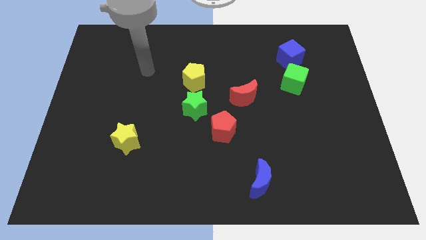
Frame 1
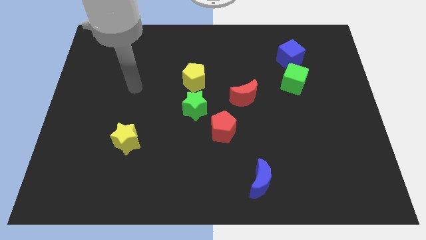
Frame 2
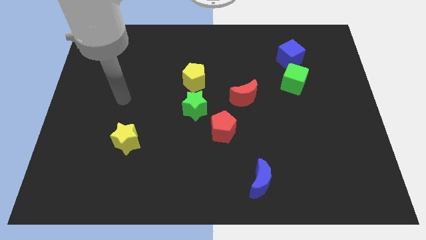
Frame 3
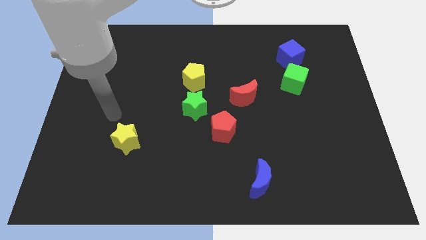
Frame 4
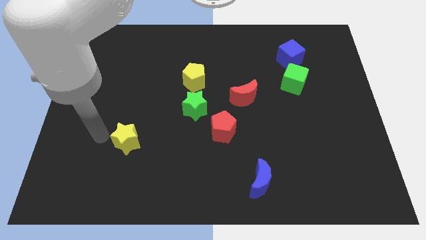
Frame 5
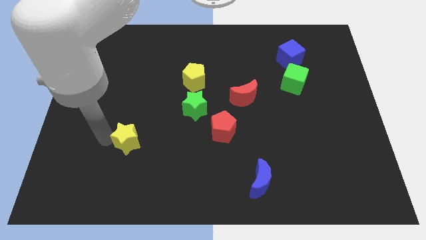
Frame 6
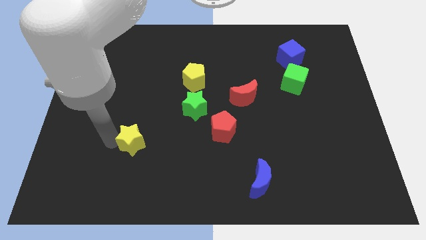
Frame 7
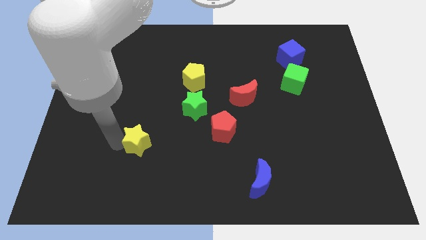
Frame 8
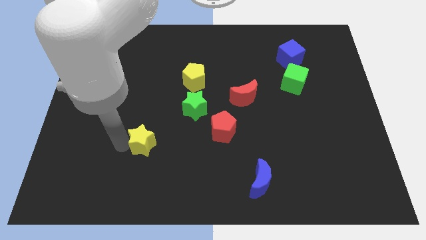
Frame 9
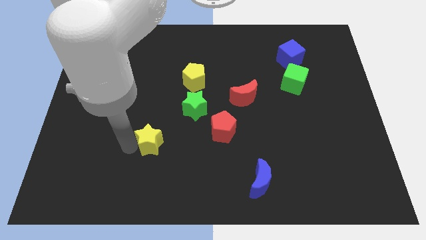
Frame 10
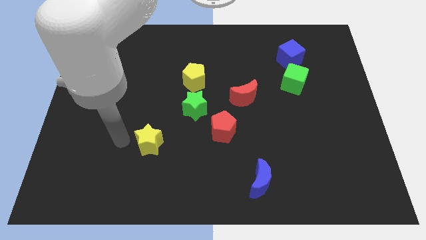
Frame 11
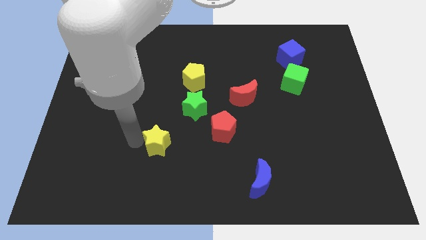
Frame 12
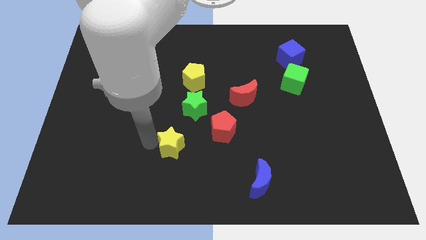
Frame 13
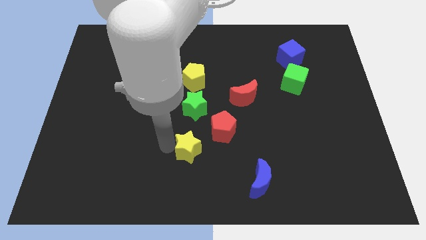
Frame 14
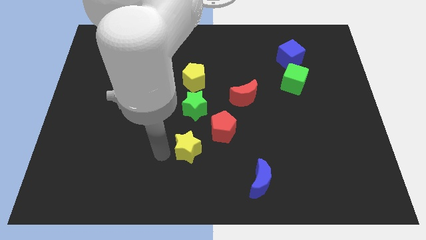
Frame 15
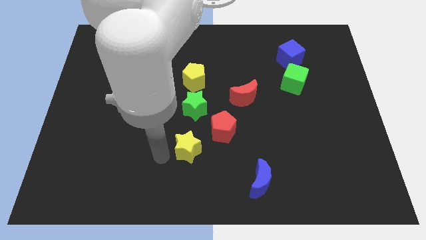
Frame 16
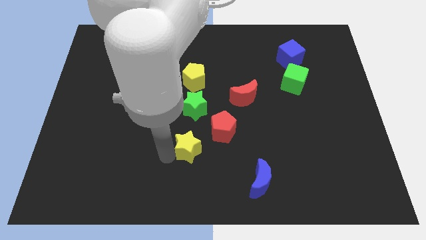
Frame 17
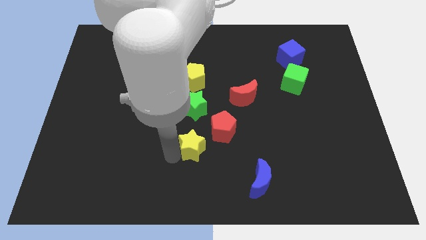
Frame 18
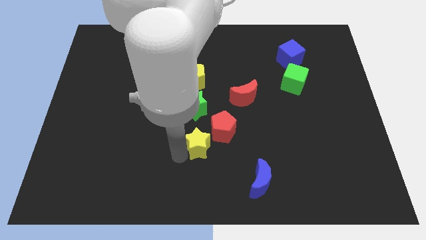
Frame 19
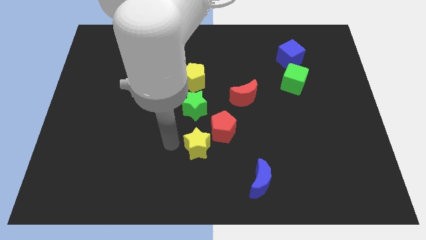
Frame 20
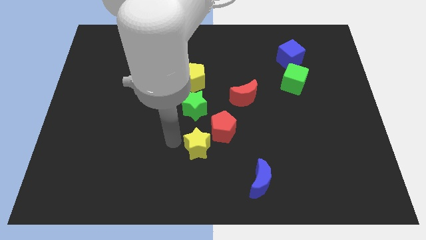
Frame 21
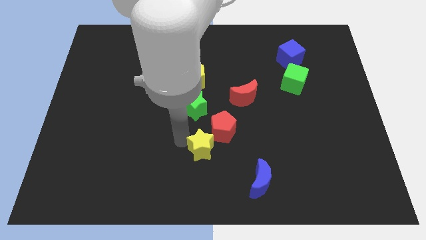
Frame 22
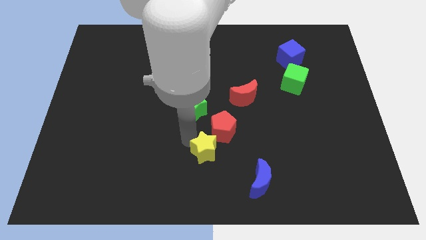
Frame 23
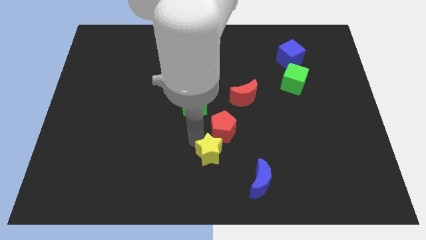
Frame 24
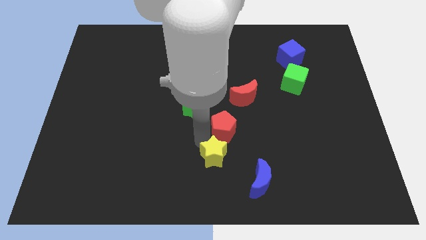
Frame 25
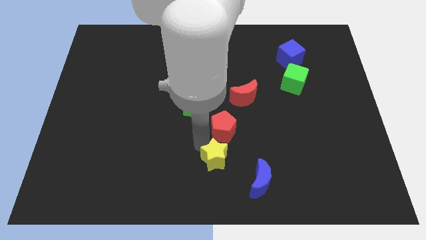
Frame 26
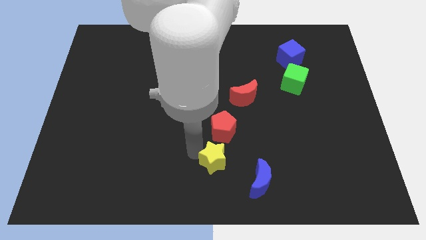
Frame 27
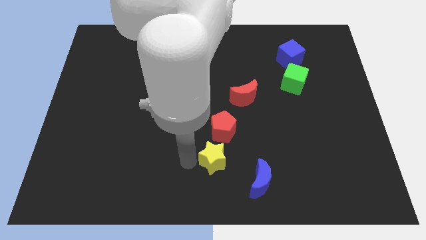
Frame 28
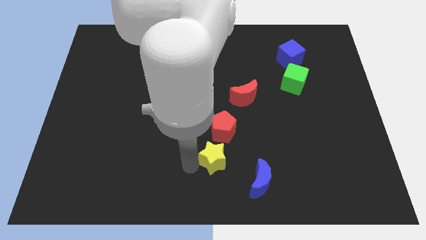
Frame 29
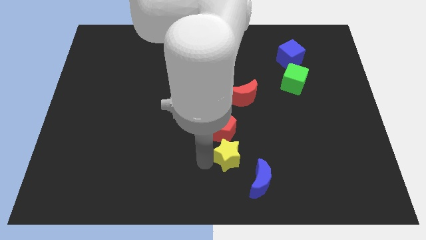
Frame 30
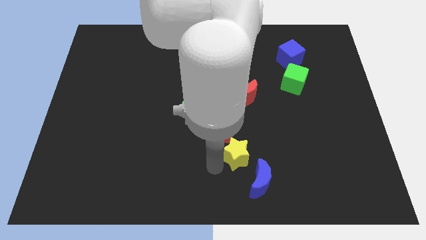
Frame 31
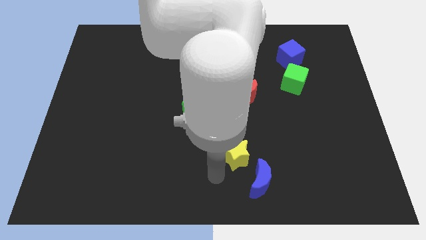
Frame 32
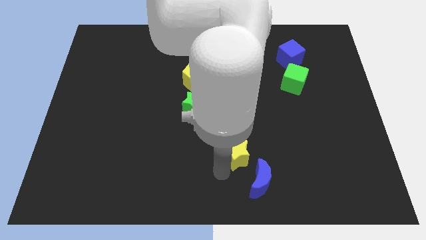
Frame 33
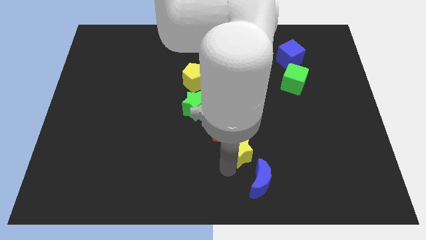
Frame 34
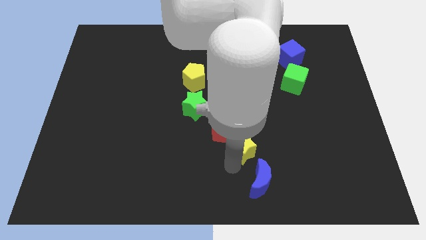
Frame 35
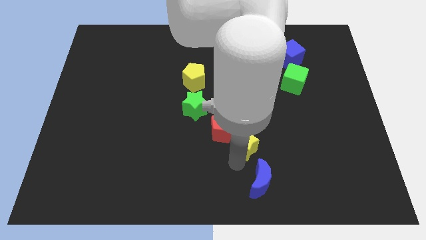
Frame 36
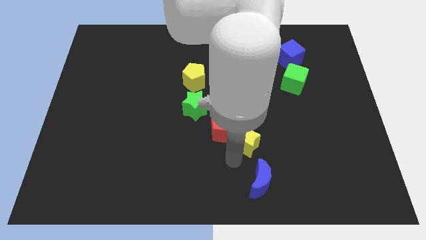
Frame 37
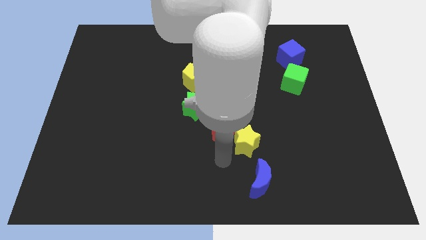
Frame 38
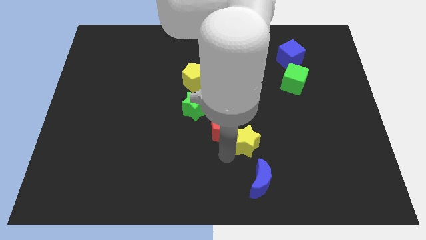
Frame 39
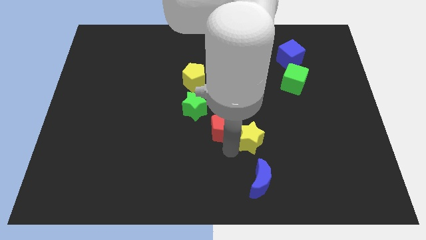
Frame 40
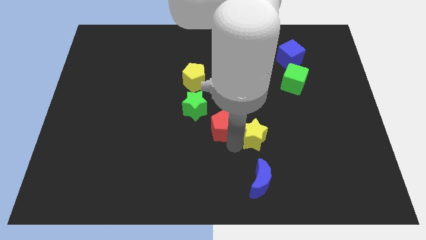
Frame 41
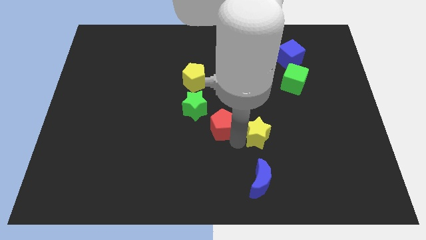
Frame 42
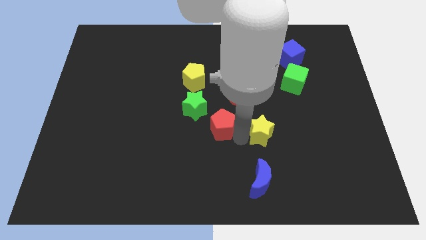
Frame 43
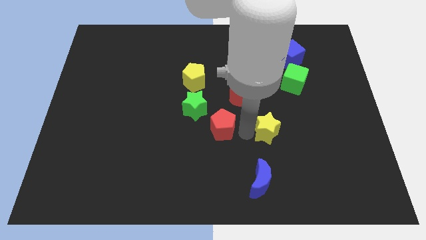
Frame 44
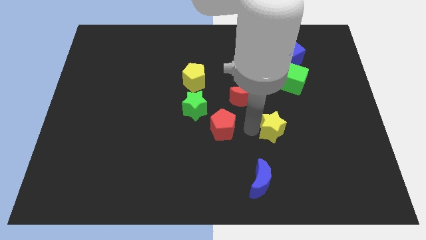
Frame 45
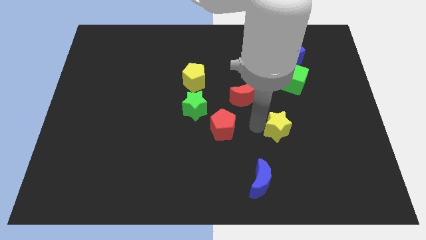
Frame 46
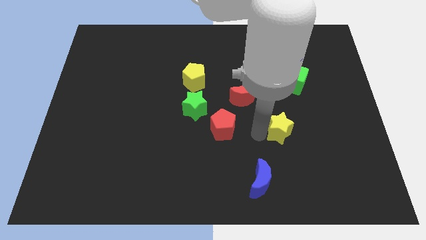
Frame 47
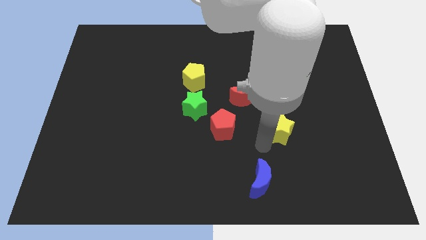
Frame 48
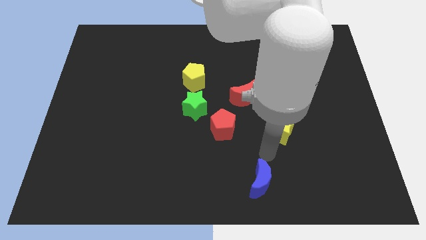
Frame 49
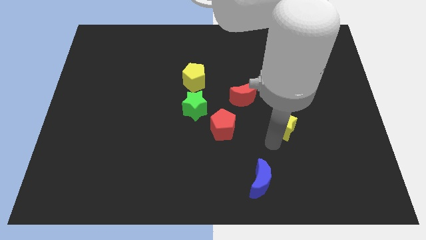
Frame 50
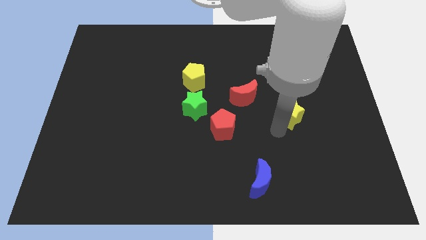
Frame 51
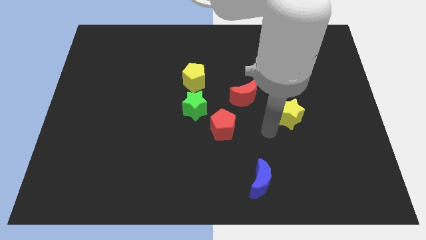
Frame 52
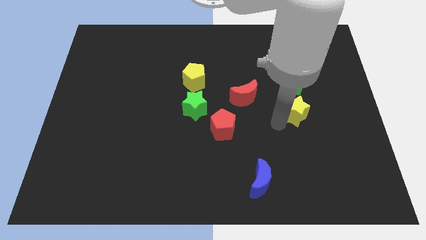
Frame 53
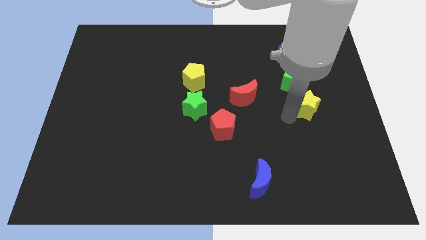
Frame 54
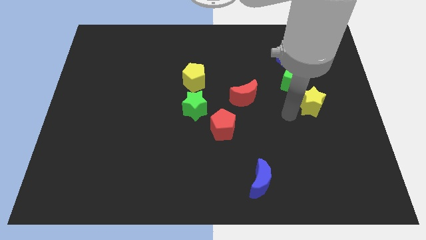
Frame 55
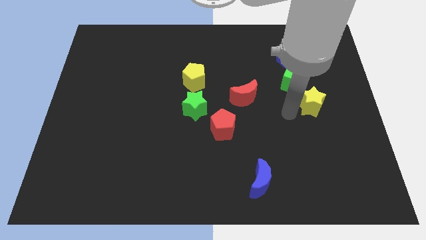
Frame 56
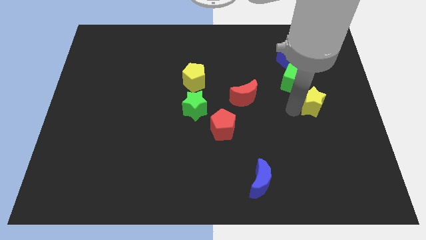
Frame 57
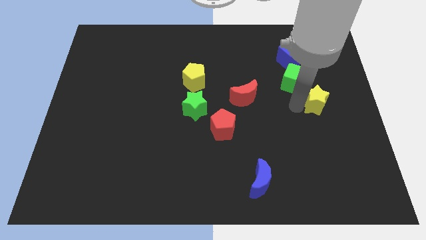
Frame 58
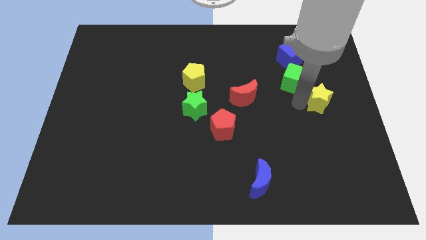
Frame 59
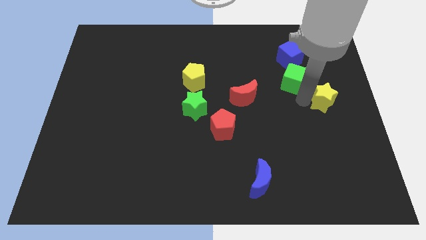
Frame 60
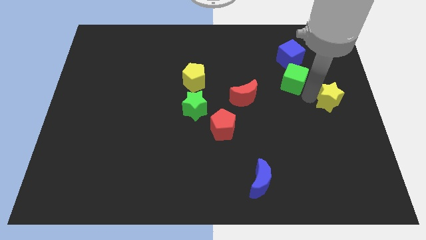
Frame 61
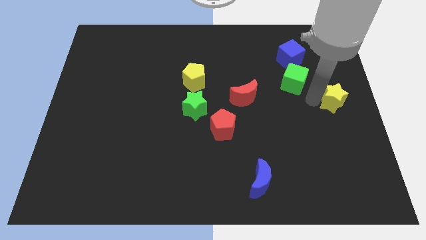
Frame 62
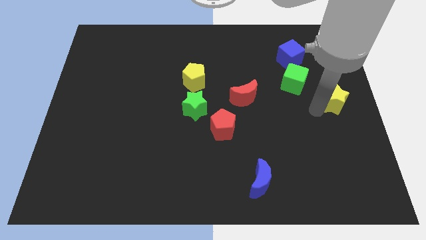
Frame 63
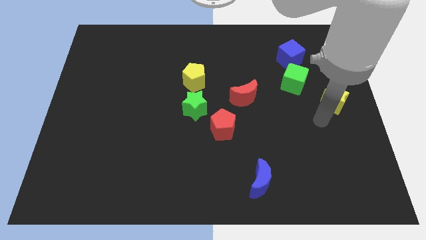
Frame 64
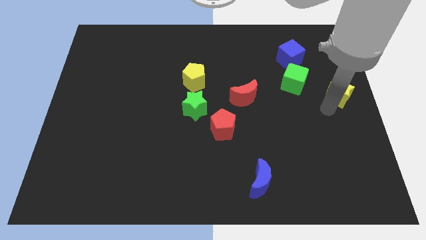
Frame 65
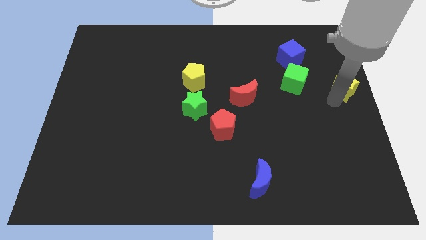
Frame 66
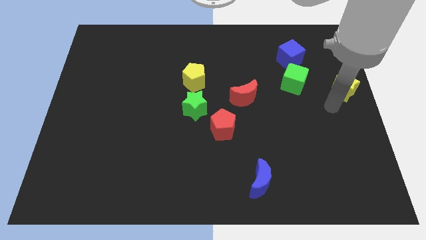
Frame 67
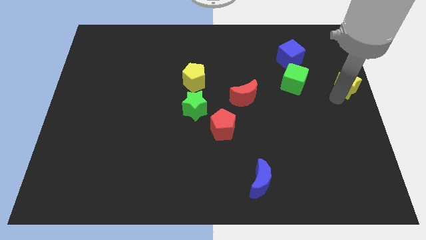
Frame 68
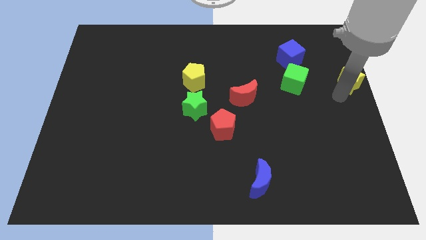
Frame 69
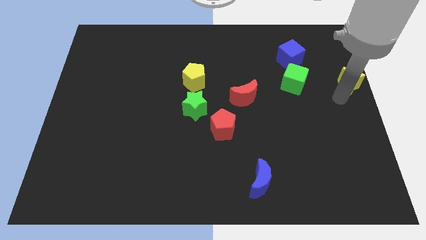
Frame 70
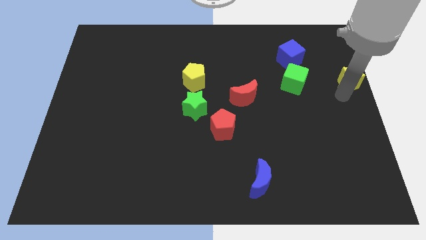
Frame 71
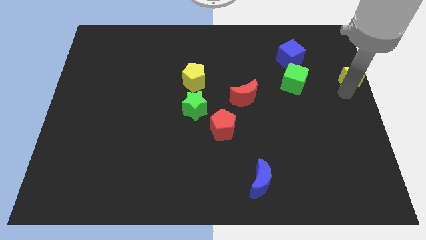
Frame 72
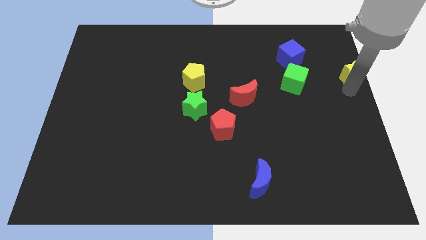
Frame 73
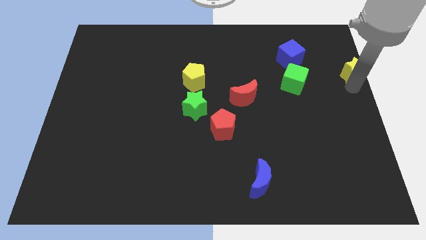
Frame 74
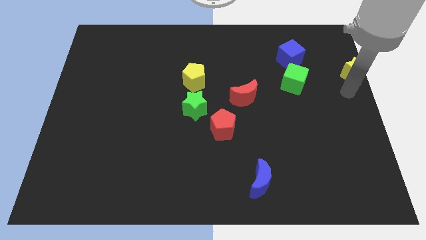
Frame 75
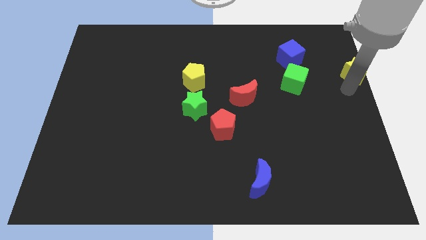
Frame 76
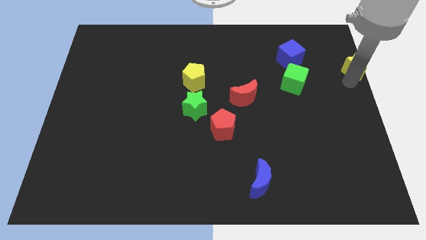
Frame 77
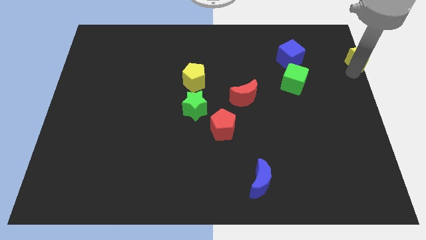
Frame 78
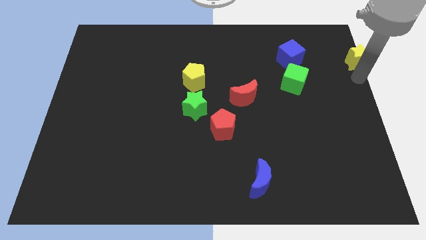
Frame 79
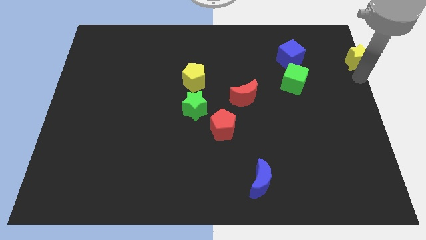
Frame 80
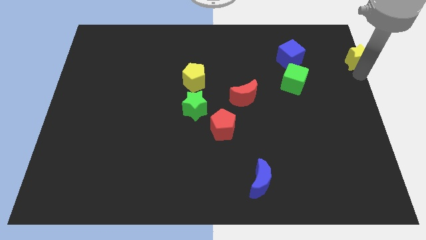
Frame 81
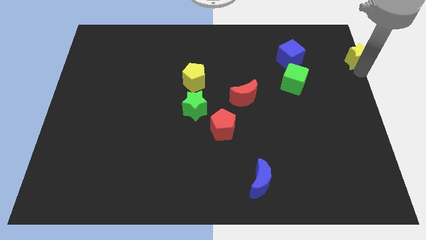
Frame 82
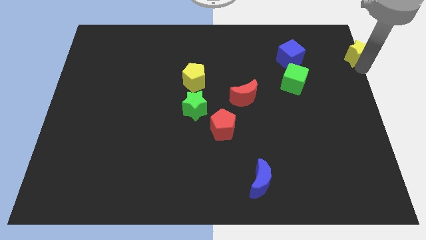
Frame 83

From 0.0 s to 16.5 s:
move the yellow star to the top right
